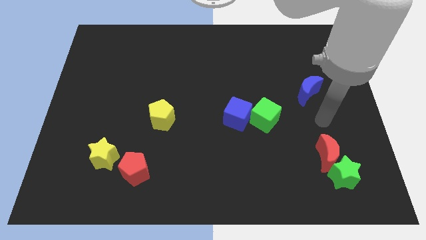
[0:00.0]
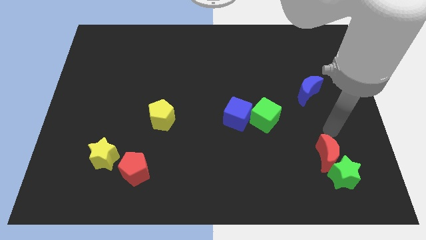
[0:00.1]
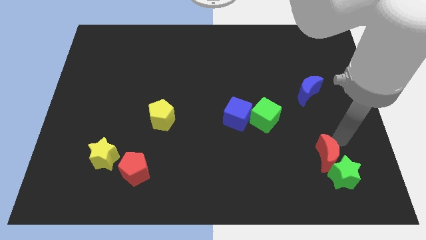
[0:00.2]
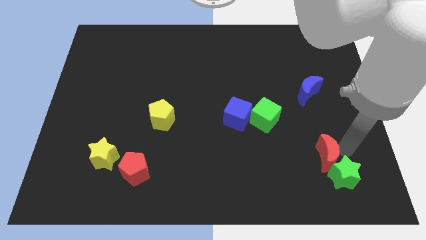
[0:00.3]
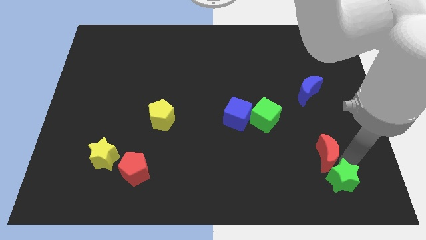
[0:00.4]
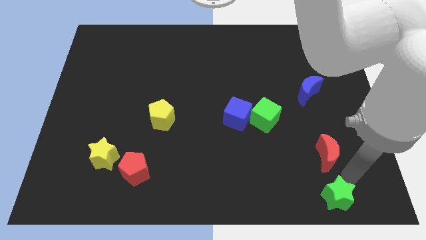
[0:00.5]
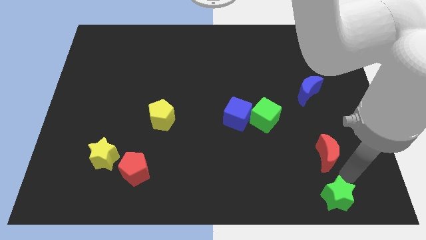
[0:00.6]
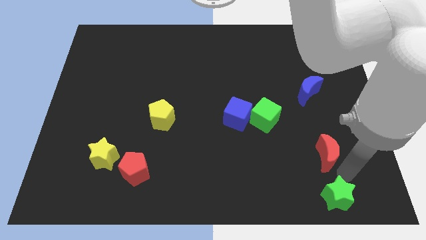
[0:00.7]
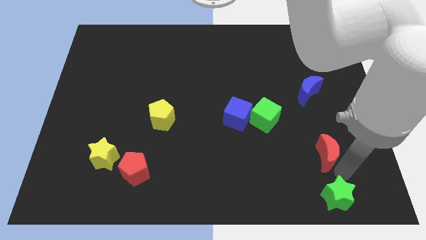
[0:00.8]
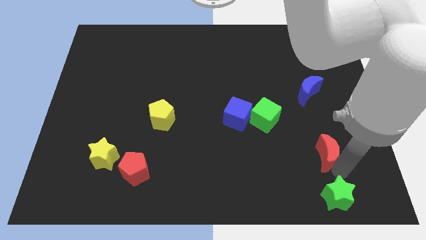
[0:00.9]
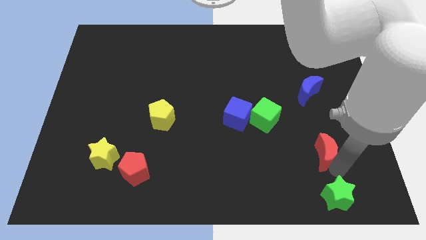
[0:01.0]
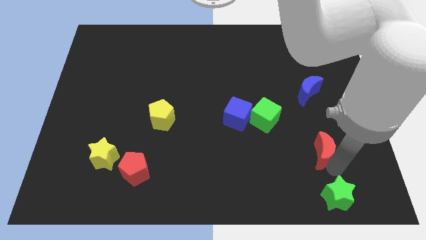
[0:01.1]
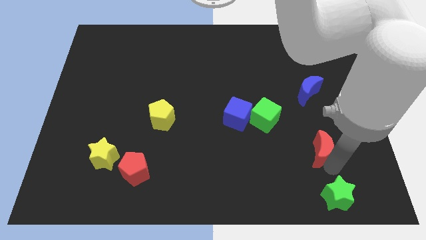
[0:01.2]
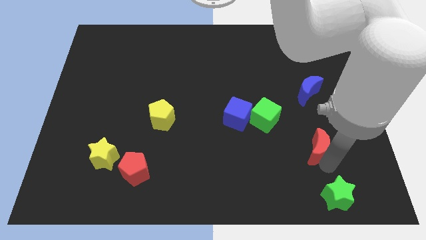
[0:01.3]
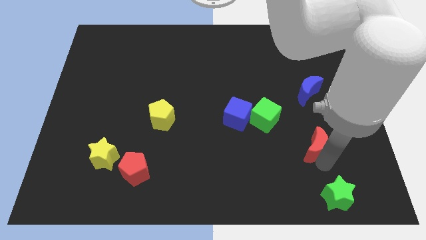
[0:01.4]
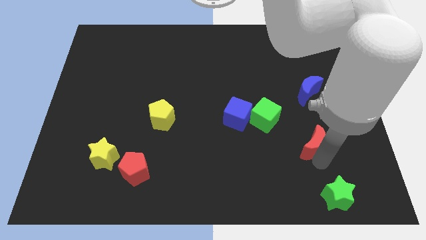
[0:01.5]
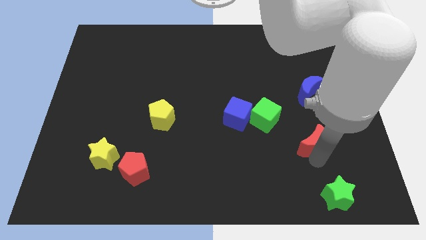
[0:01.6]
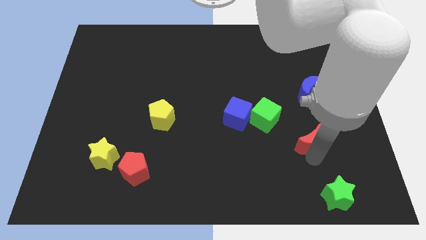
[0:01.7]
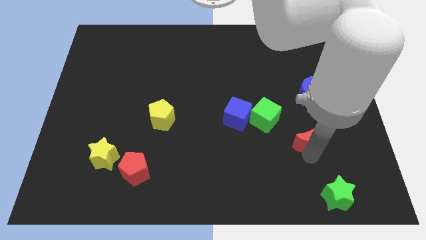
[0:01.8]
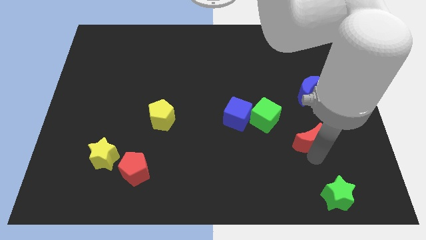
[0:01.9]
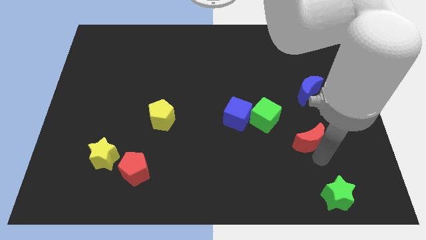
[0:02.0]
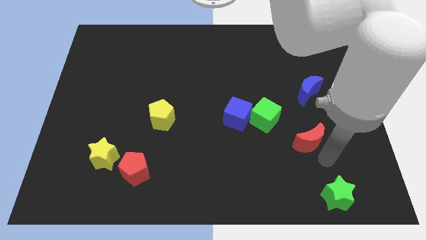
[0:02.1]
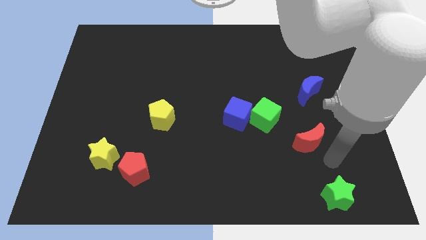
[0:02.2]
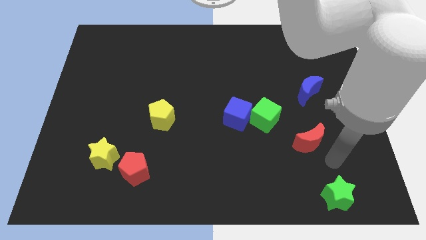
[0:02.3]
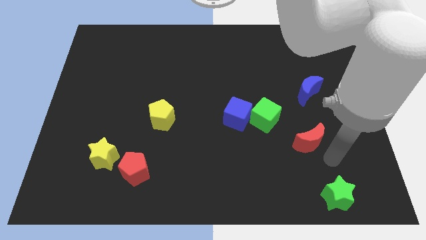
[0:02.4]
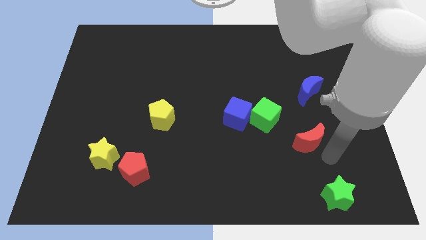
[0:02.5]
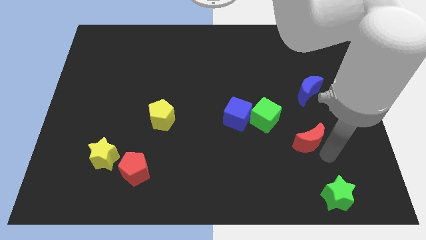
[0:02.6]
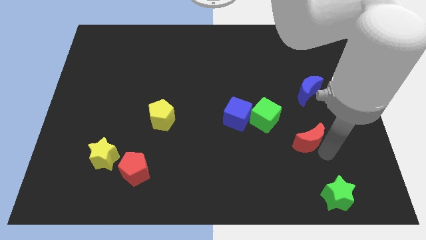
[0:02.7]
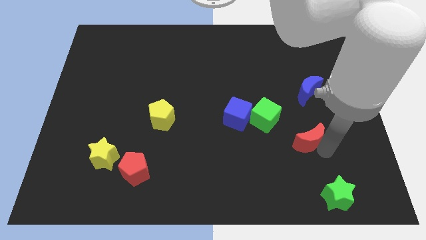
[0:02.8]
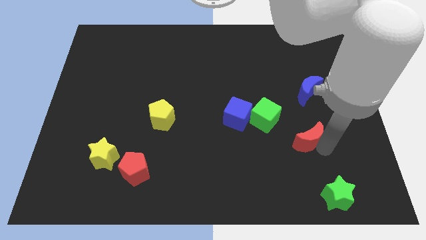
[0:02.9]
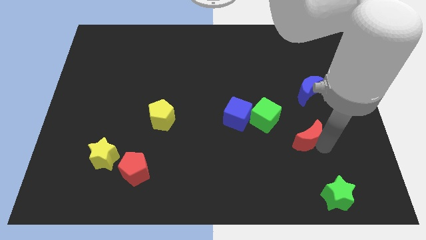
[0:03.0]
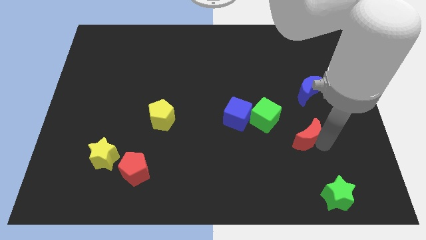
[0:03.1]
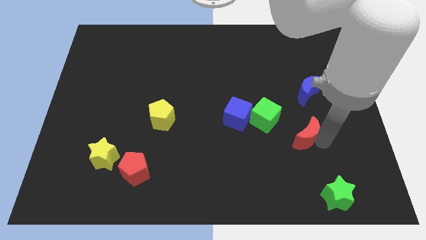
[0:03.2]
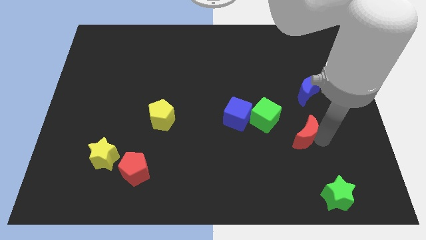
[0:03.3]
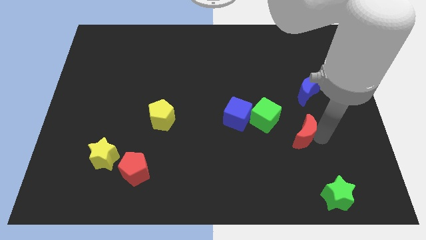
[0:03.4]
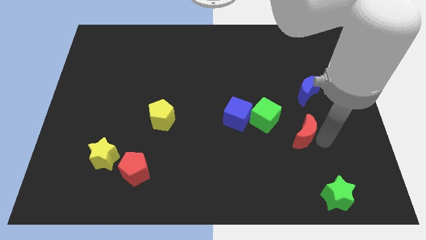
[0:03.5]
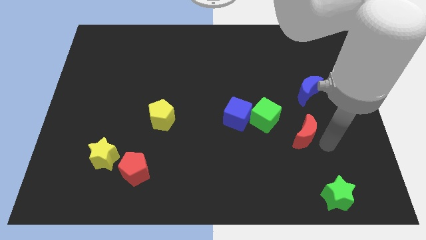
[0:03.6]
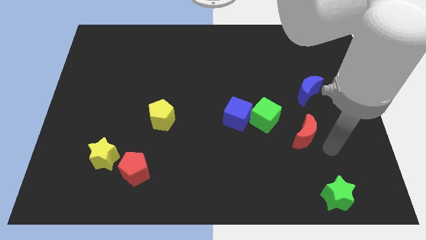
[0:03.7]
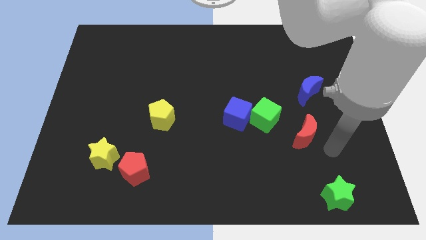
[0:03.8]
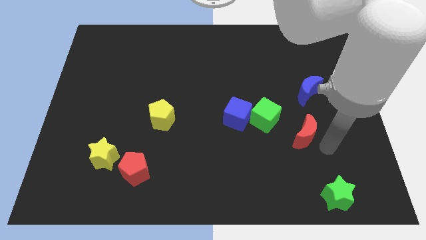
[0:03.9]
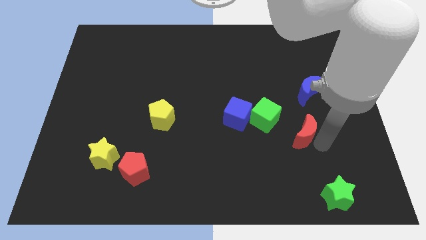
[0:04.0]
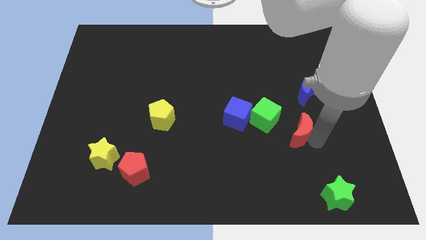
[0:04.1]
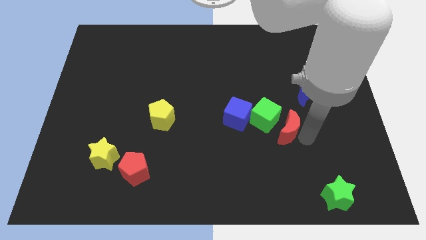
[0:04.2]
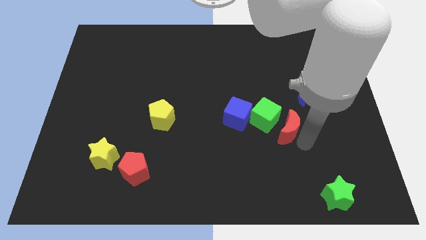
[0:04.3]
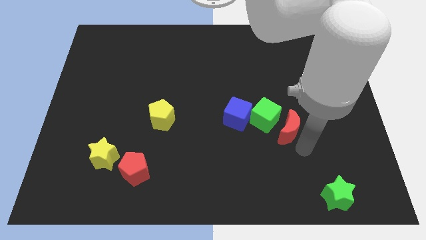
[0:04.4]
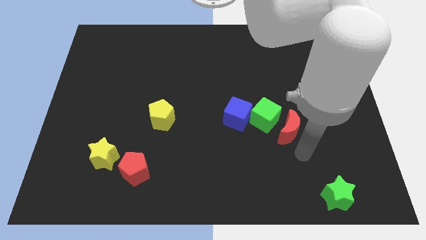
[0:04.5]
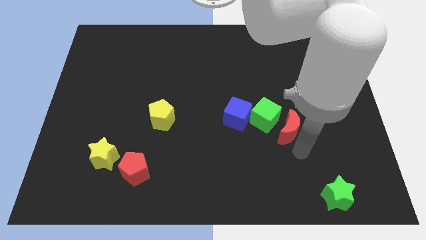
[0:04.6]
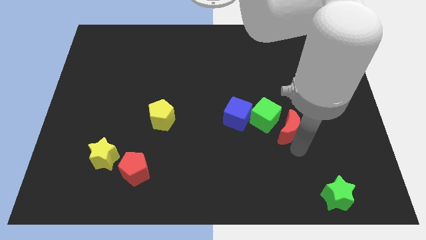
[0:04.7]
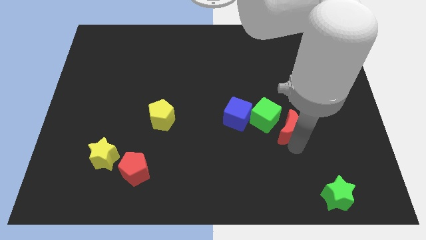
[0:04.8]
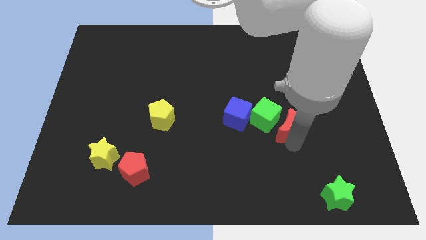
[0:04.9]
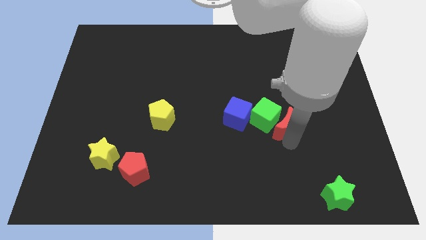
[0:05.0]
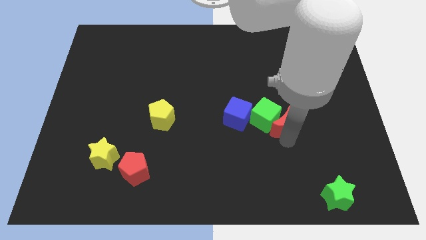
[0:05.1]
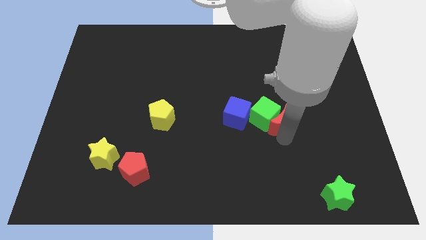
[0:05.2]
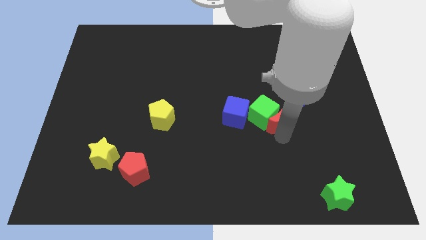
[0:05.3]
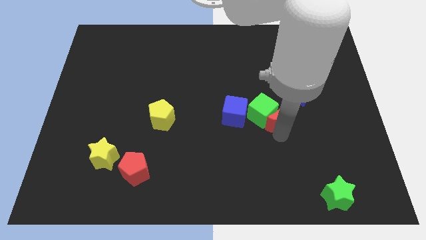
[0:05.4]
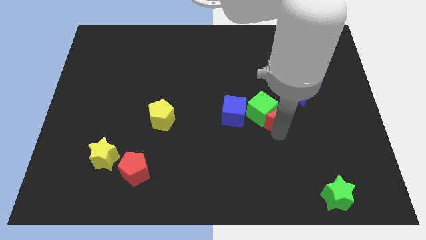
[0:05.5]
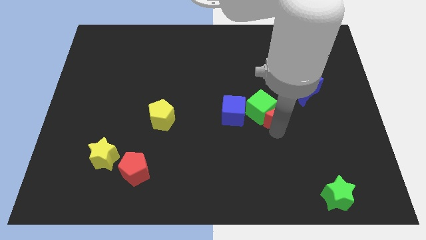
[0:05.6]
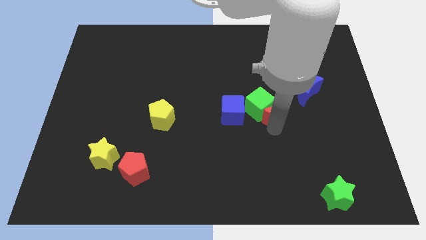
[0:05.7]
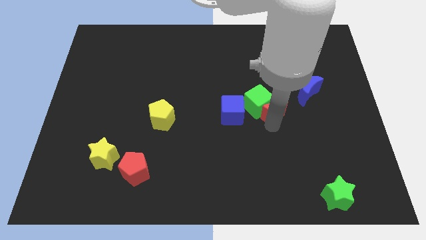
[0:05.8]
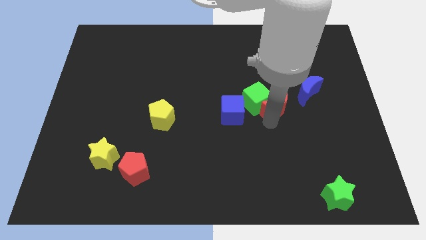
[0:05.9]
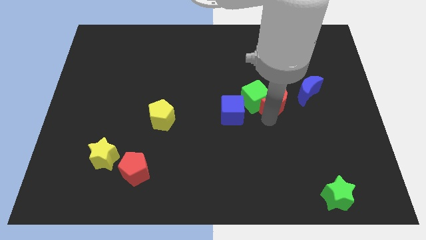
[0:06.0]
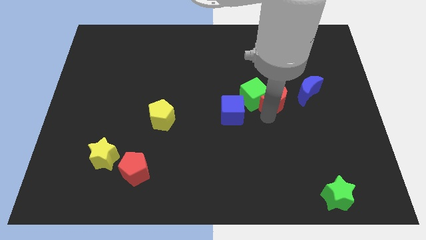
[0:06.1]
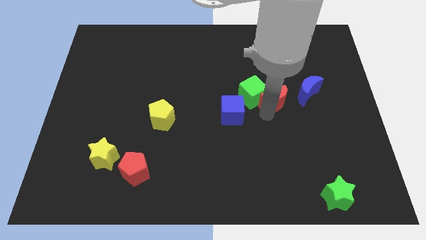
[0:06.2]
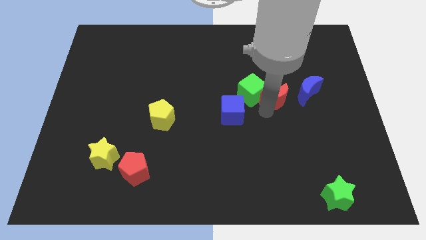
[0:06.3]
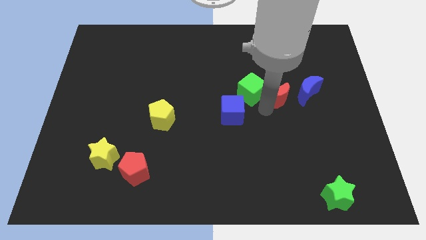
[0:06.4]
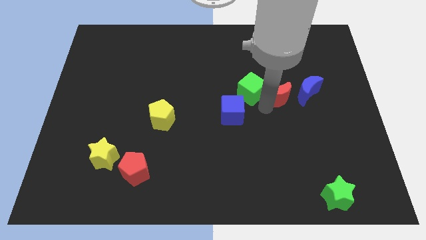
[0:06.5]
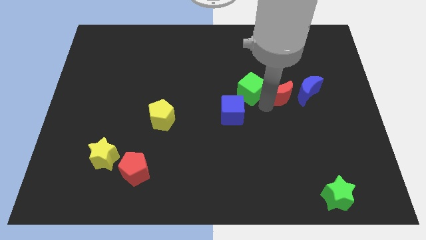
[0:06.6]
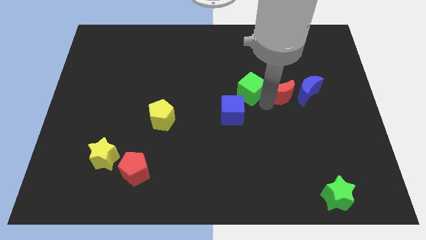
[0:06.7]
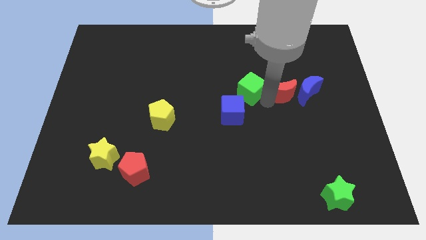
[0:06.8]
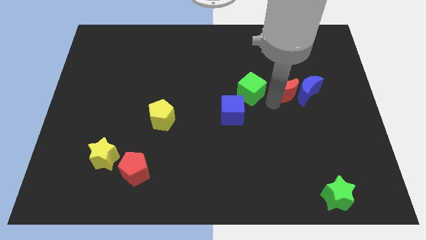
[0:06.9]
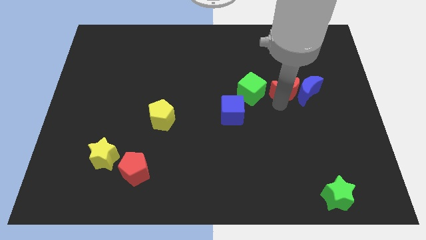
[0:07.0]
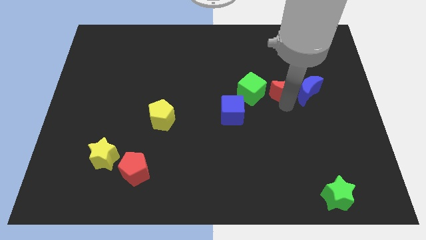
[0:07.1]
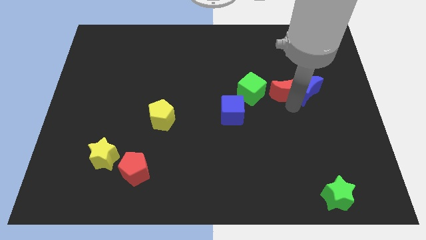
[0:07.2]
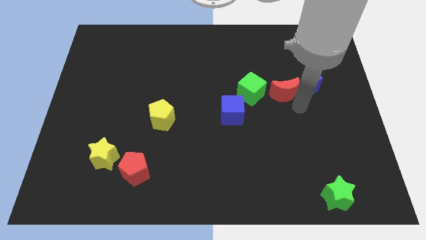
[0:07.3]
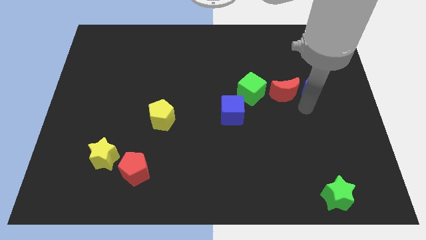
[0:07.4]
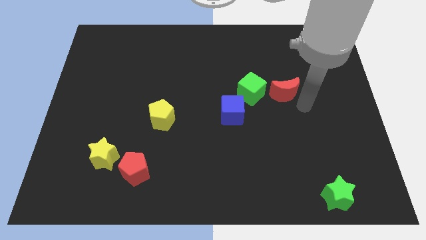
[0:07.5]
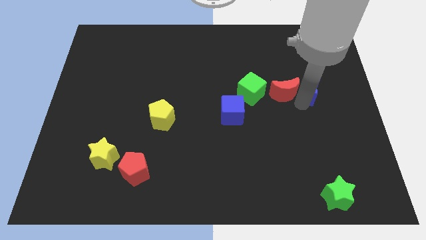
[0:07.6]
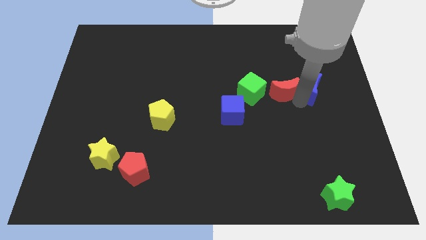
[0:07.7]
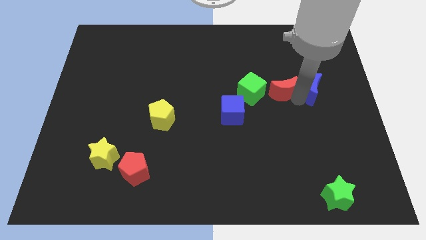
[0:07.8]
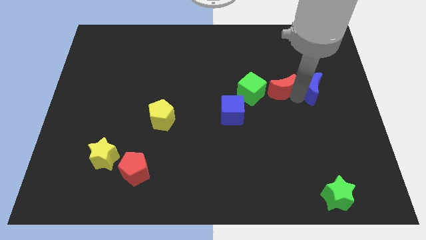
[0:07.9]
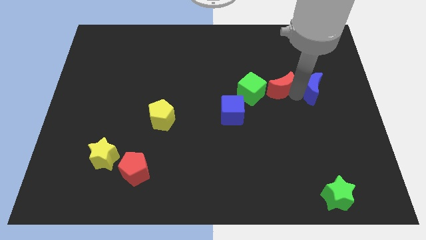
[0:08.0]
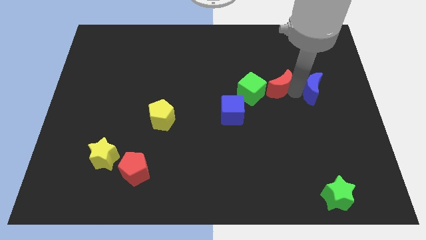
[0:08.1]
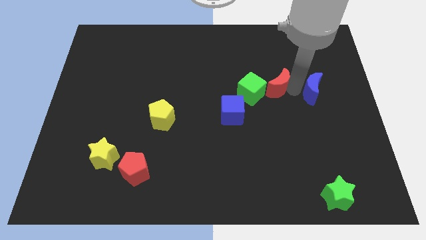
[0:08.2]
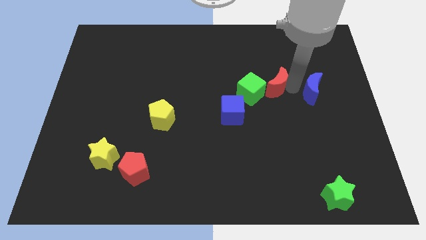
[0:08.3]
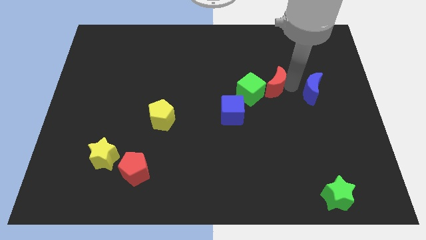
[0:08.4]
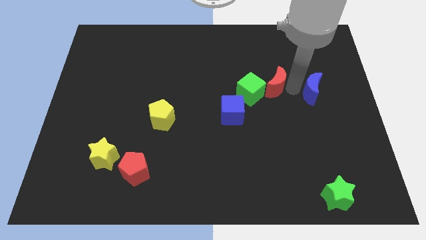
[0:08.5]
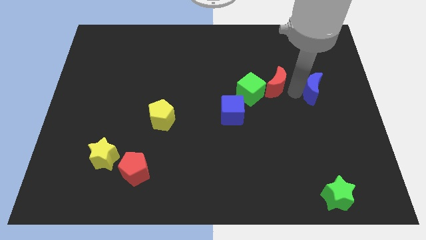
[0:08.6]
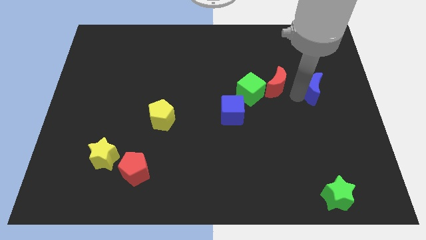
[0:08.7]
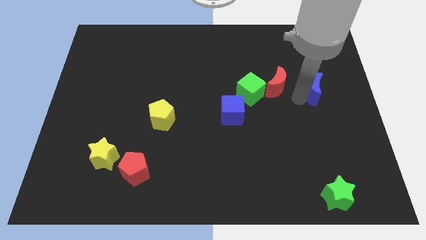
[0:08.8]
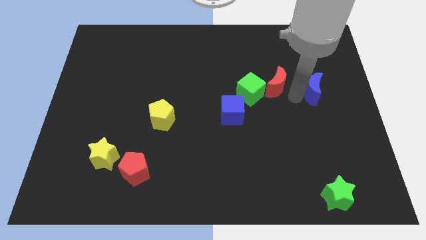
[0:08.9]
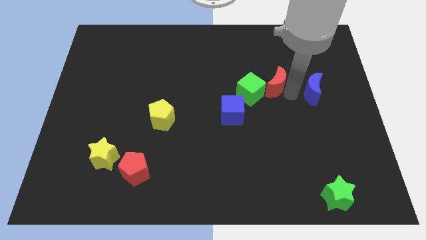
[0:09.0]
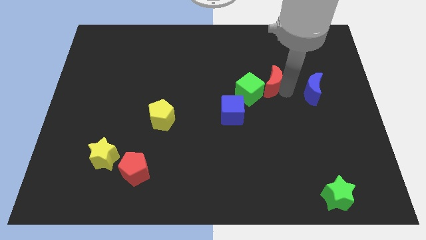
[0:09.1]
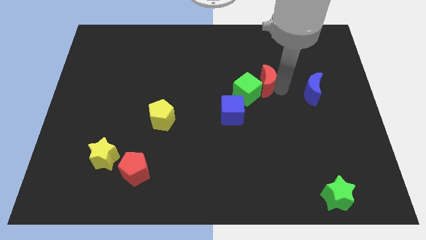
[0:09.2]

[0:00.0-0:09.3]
move the red moon up and then to the left
